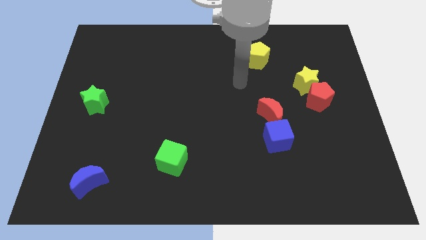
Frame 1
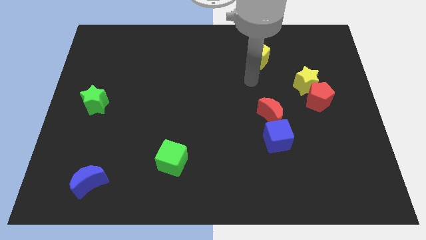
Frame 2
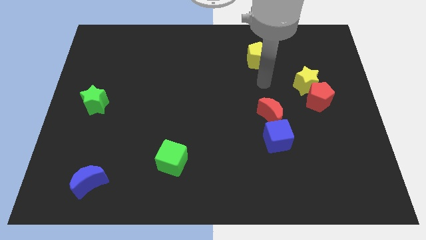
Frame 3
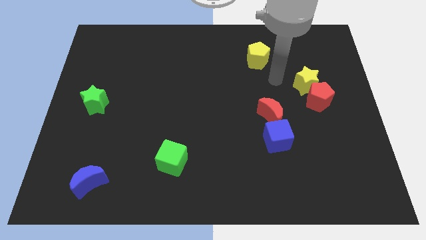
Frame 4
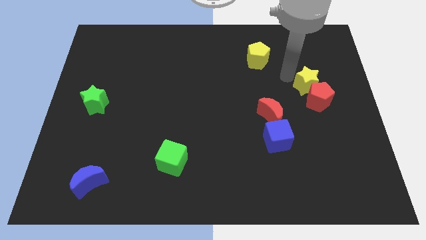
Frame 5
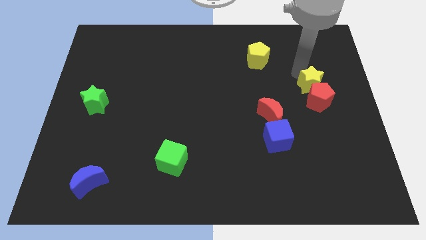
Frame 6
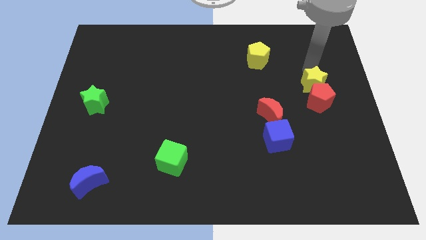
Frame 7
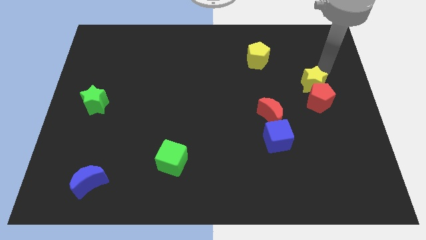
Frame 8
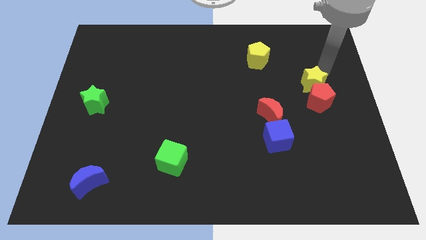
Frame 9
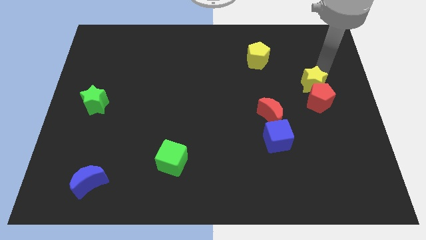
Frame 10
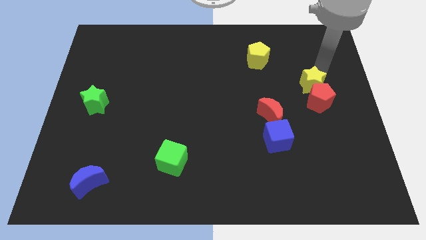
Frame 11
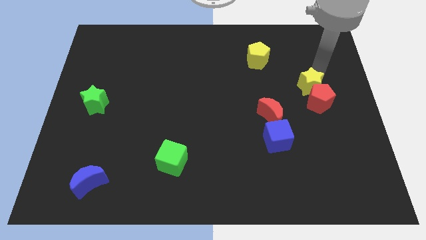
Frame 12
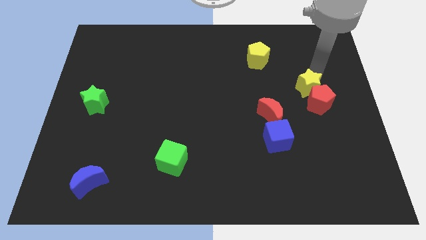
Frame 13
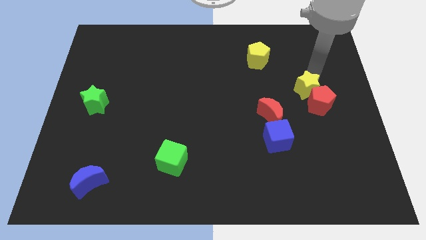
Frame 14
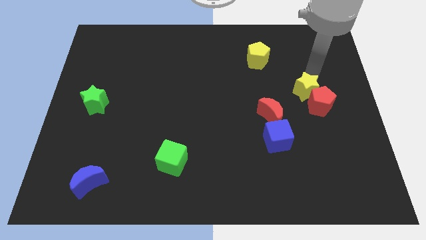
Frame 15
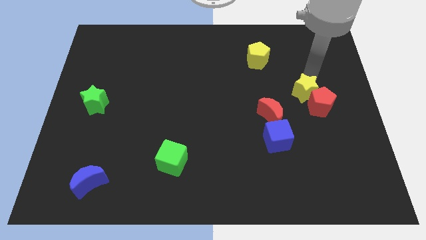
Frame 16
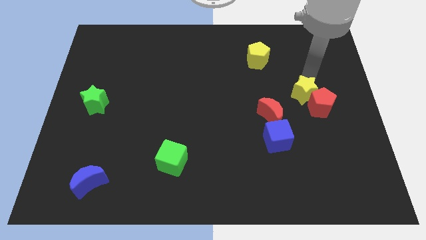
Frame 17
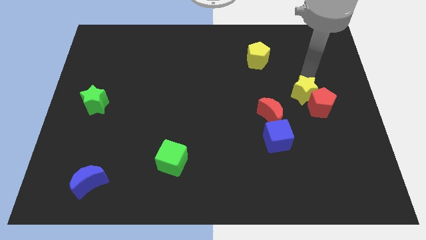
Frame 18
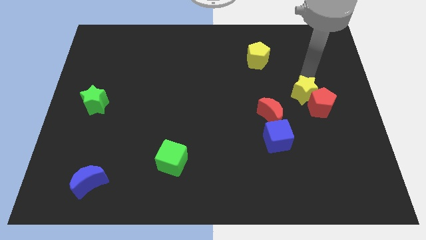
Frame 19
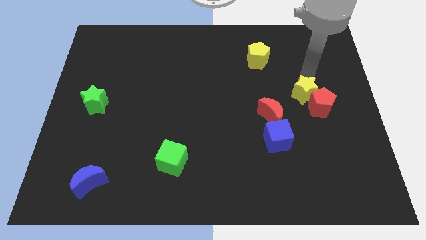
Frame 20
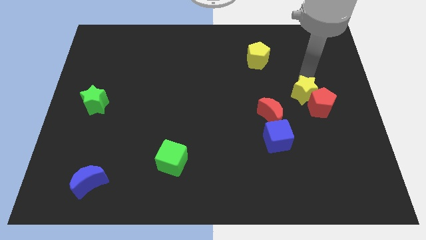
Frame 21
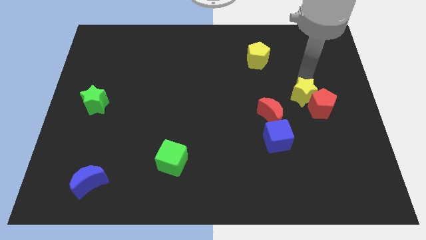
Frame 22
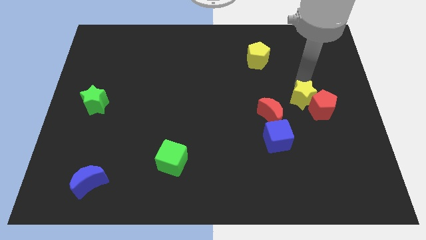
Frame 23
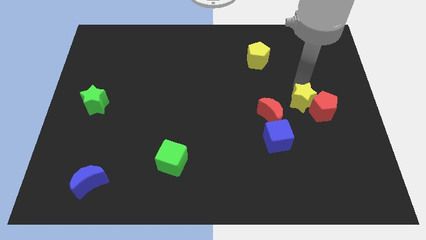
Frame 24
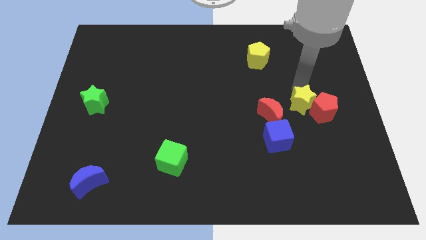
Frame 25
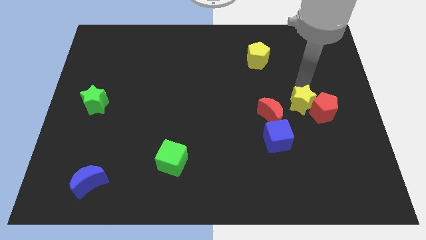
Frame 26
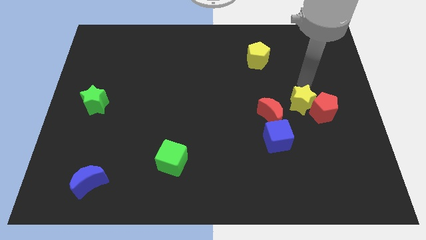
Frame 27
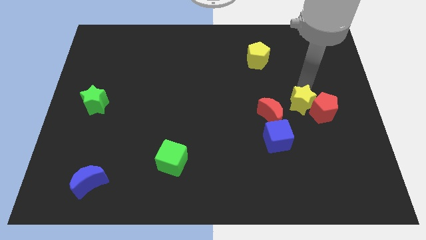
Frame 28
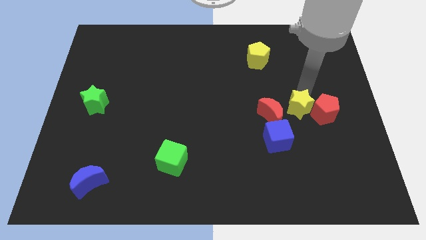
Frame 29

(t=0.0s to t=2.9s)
push the yellow star down slightly

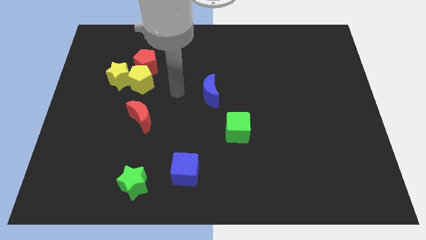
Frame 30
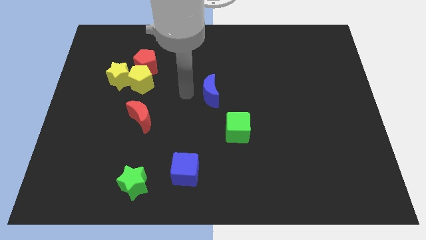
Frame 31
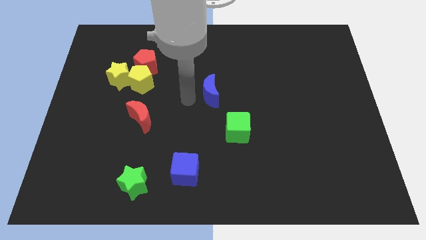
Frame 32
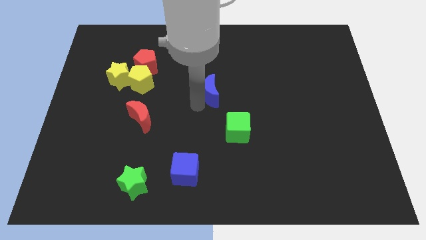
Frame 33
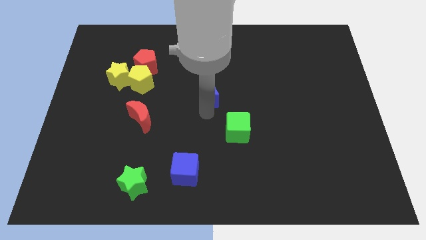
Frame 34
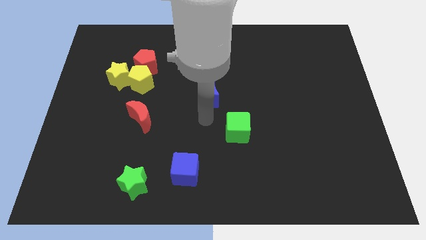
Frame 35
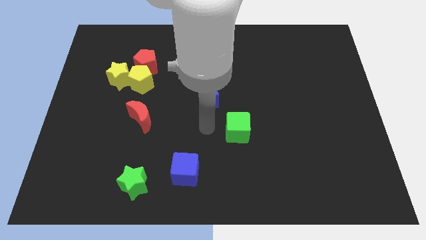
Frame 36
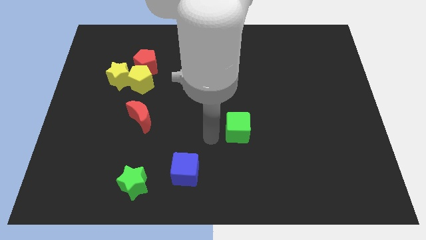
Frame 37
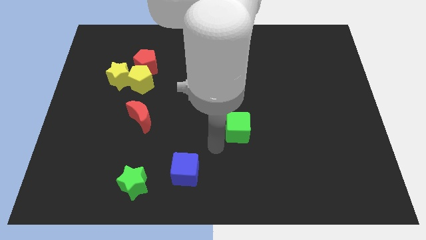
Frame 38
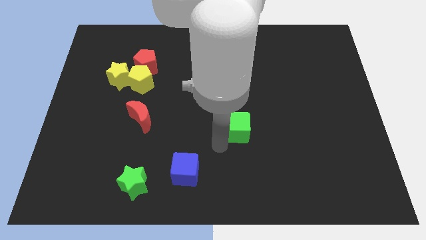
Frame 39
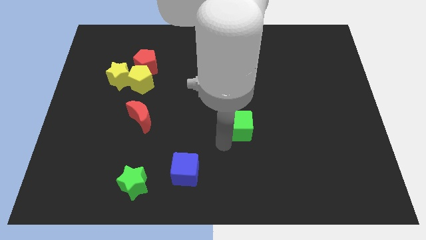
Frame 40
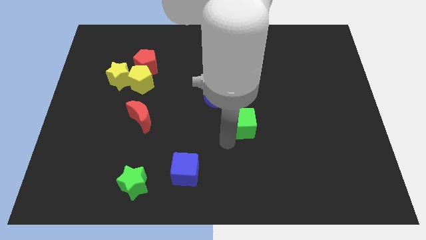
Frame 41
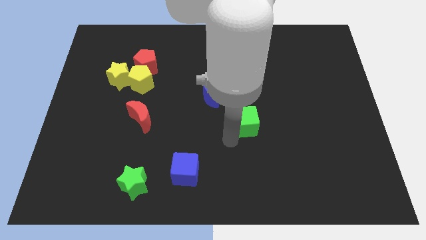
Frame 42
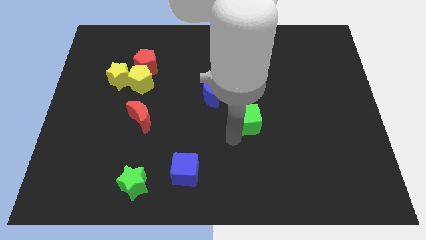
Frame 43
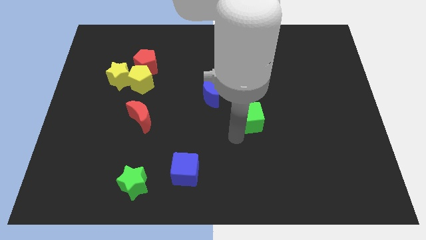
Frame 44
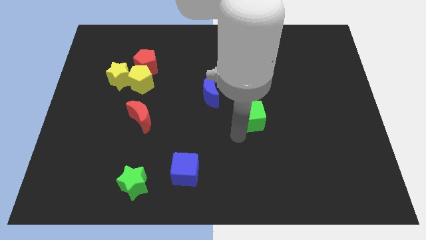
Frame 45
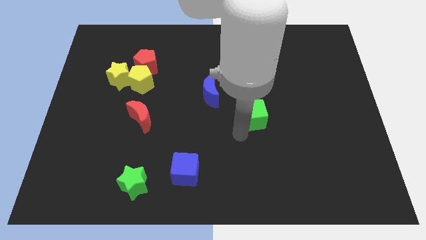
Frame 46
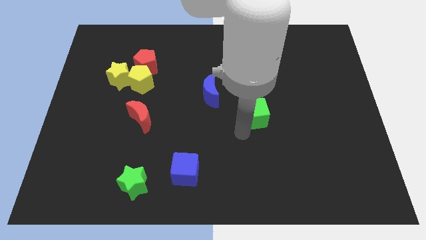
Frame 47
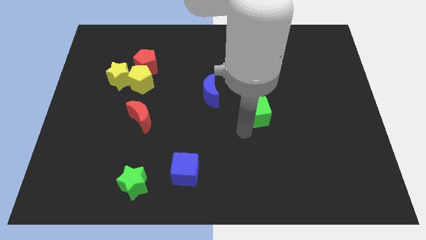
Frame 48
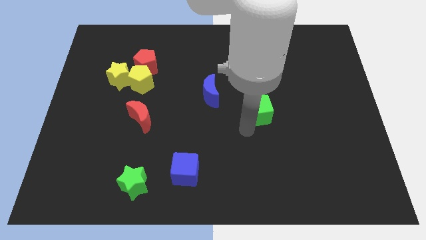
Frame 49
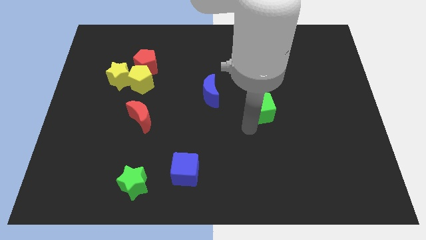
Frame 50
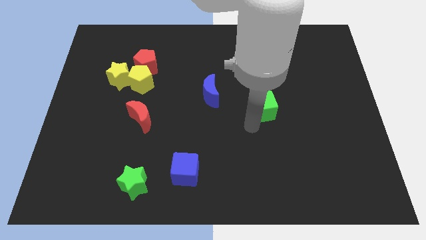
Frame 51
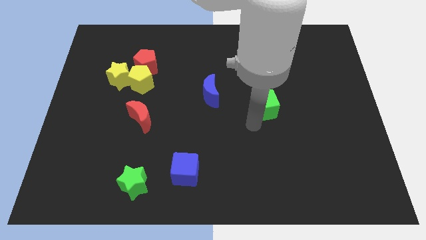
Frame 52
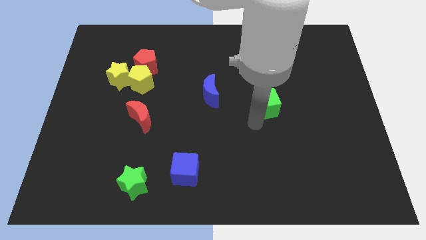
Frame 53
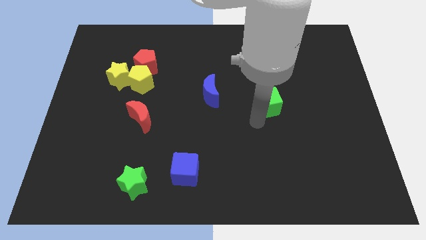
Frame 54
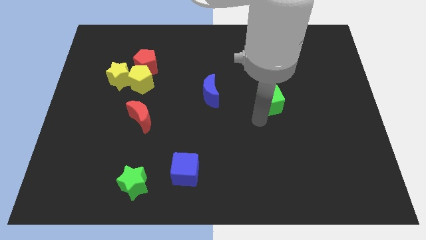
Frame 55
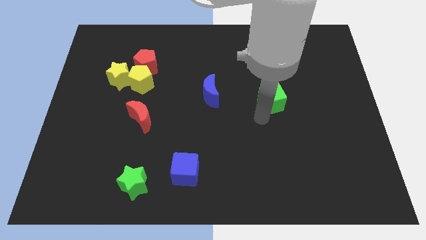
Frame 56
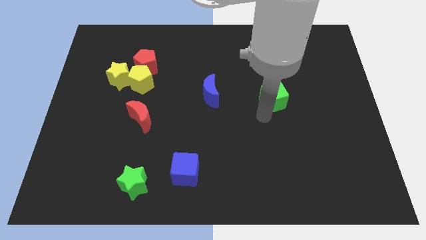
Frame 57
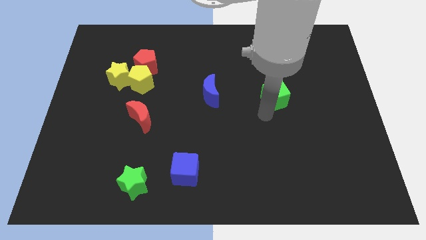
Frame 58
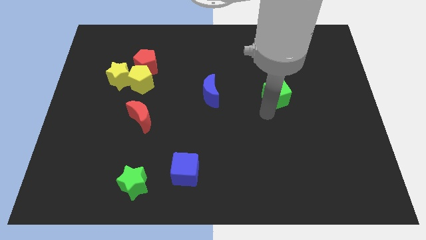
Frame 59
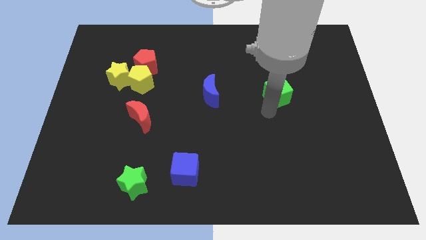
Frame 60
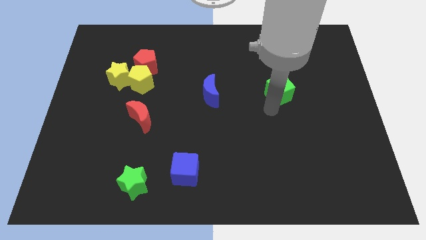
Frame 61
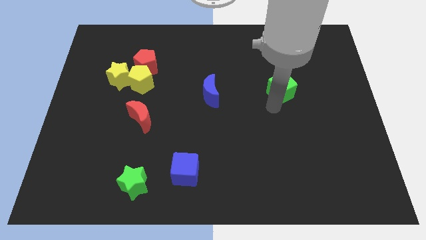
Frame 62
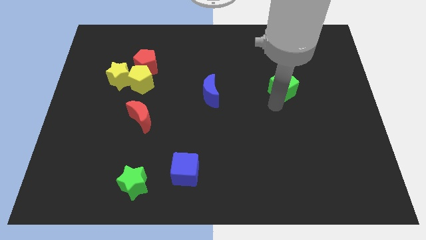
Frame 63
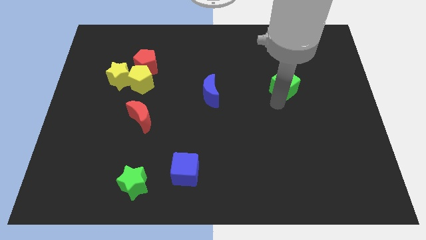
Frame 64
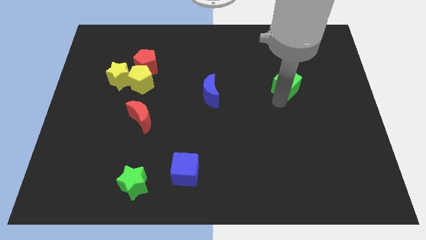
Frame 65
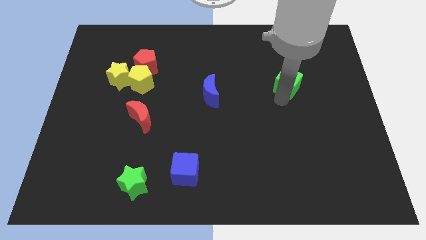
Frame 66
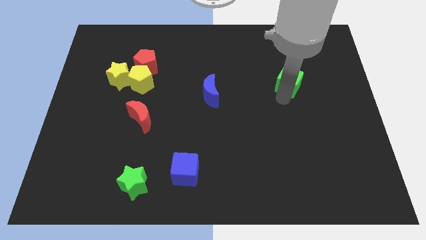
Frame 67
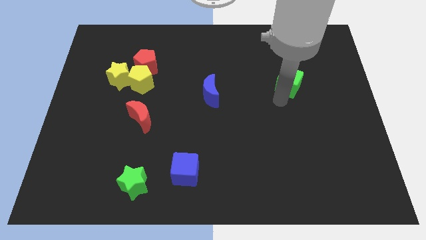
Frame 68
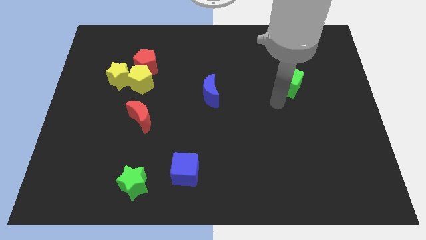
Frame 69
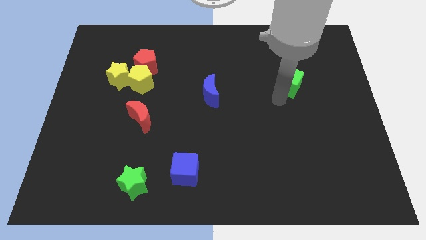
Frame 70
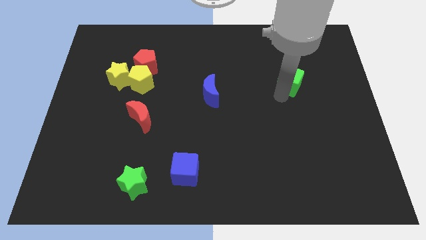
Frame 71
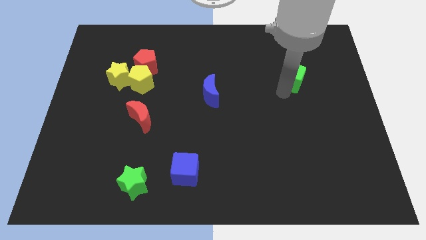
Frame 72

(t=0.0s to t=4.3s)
slide the green cube up and right diagonally

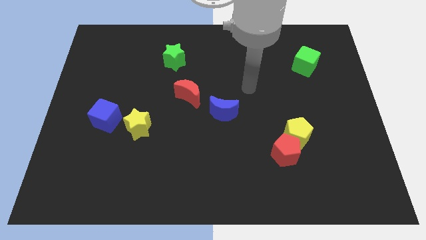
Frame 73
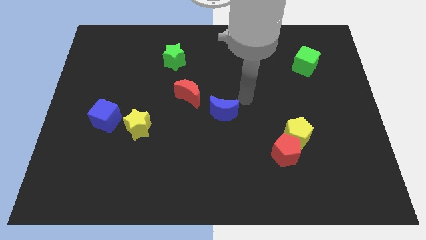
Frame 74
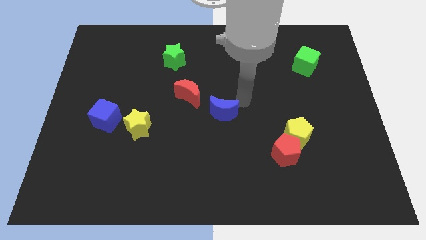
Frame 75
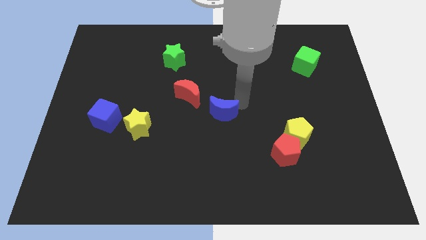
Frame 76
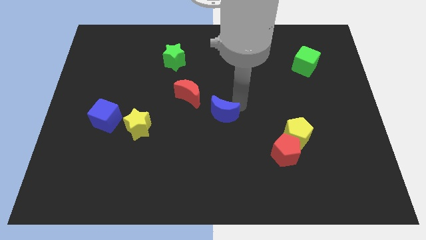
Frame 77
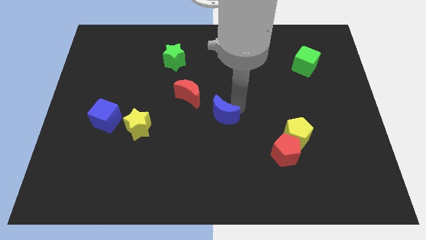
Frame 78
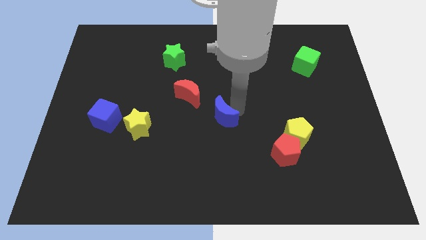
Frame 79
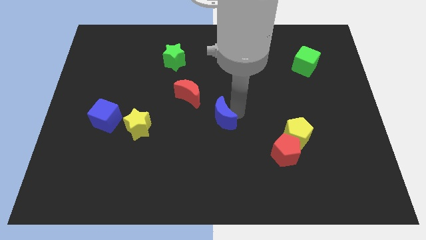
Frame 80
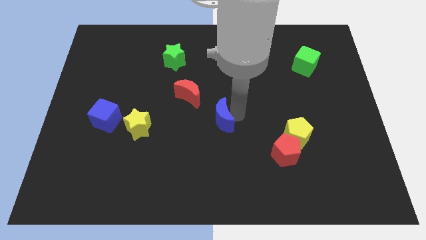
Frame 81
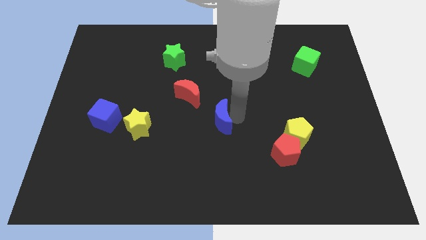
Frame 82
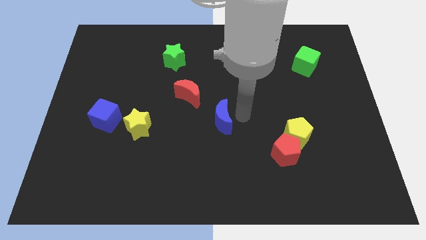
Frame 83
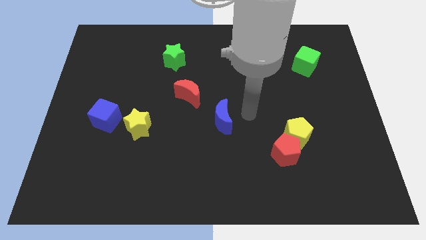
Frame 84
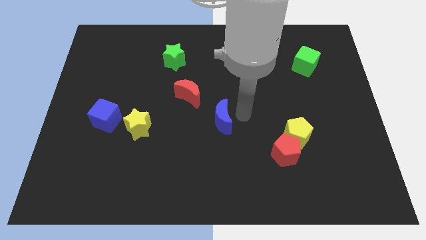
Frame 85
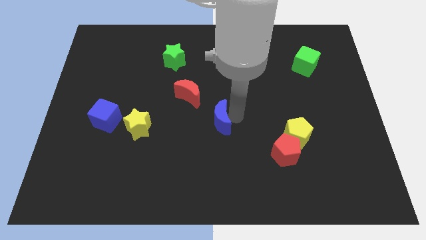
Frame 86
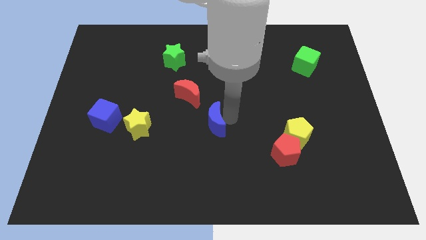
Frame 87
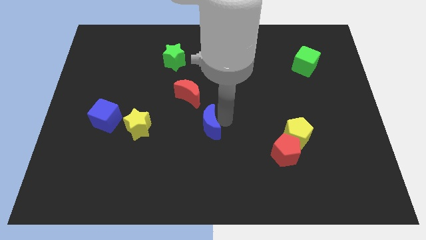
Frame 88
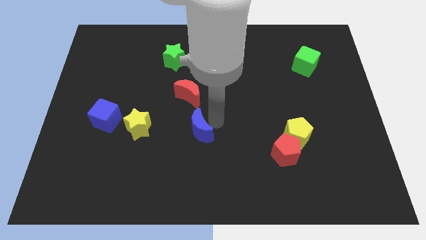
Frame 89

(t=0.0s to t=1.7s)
slide the blue moon diagonally down and left somewhat
